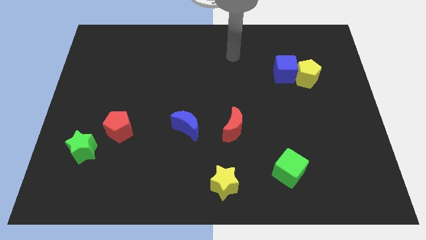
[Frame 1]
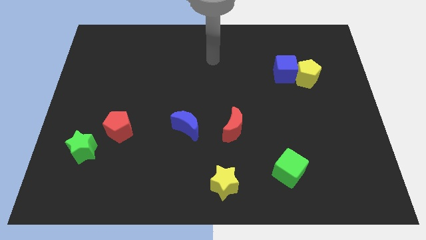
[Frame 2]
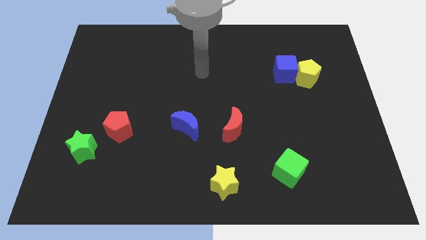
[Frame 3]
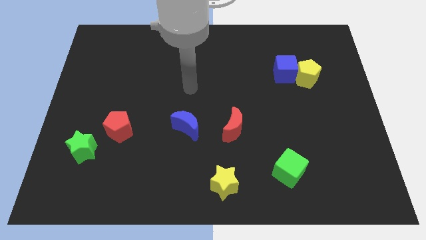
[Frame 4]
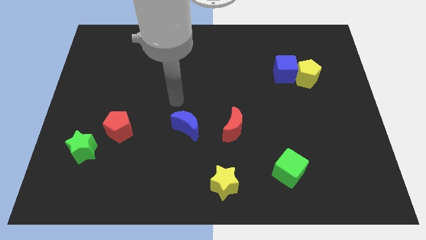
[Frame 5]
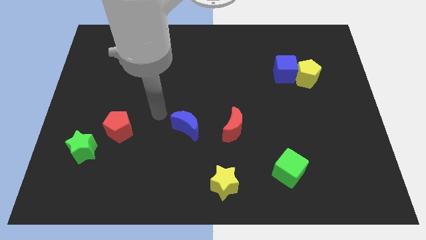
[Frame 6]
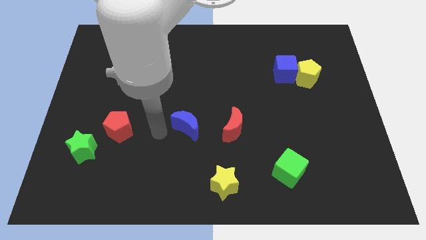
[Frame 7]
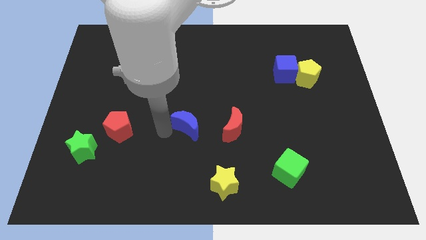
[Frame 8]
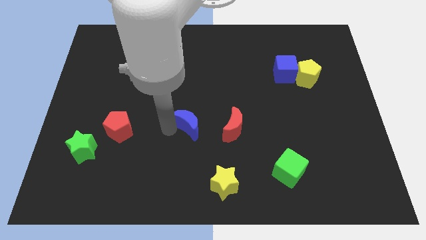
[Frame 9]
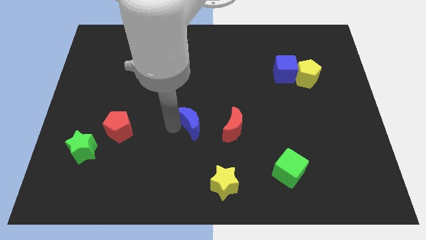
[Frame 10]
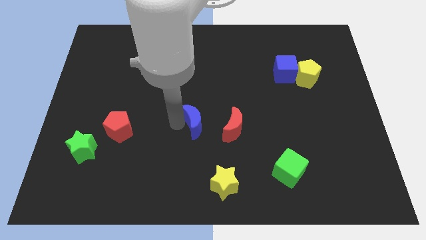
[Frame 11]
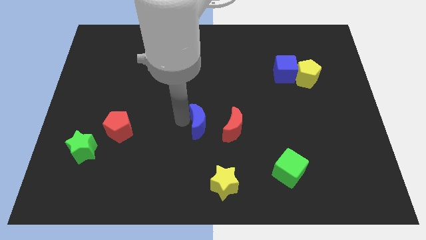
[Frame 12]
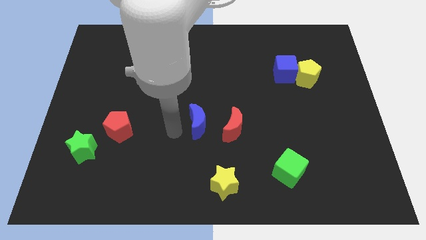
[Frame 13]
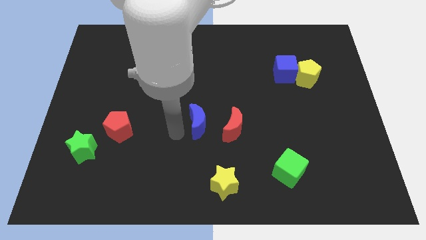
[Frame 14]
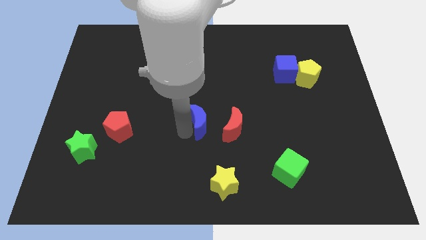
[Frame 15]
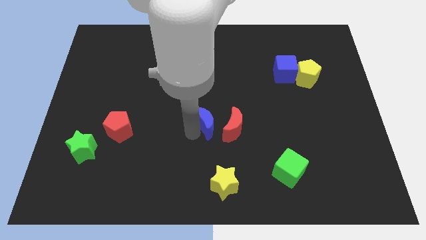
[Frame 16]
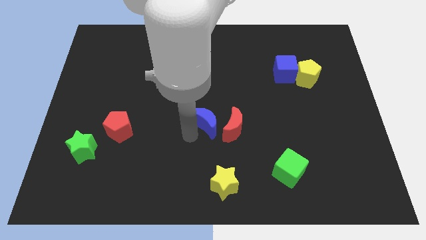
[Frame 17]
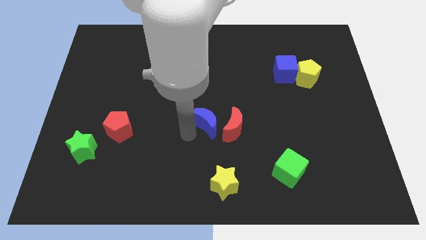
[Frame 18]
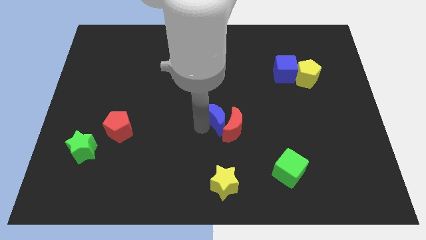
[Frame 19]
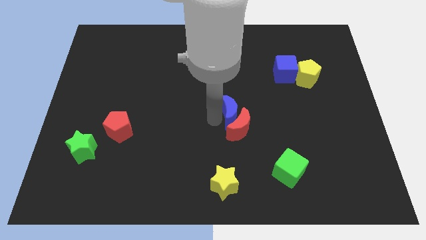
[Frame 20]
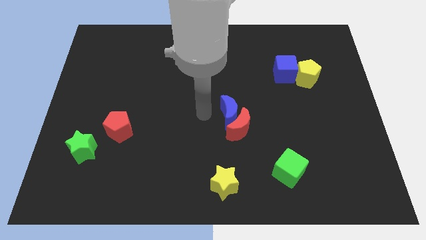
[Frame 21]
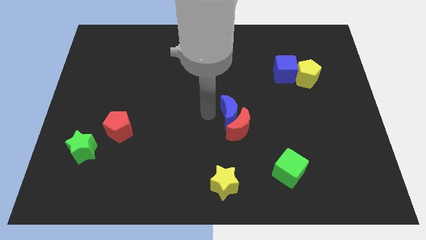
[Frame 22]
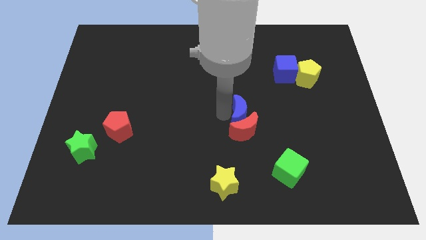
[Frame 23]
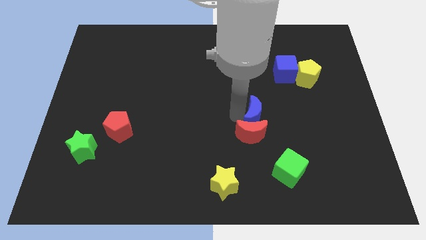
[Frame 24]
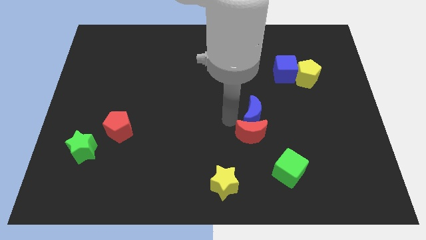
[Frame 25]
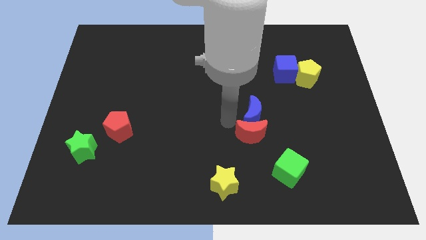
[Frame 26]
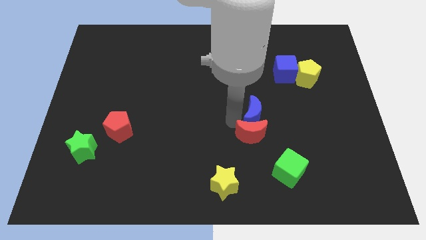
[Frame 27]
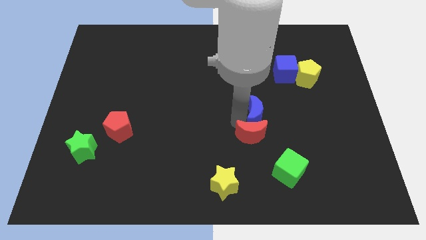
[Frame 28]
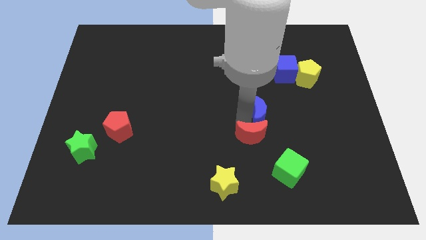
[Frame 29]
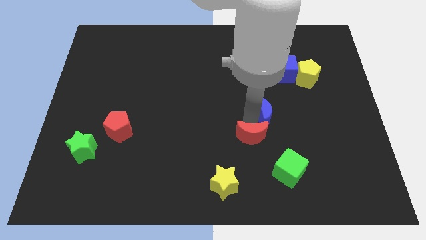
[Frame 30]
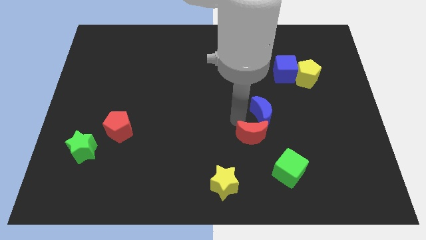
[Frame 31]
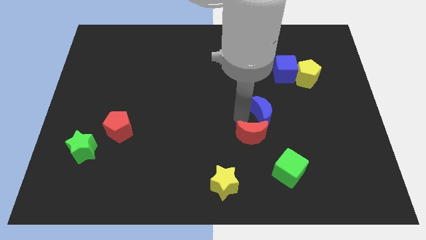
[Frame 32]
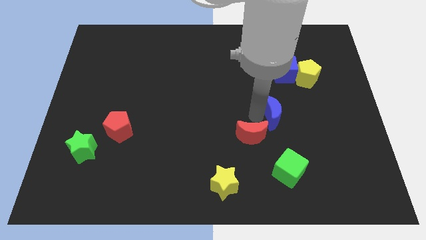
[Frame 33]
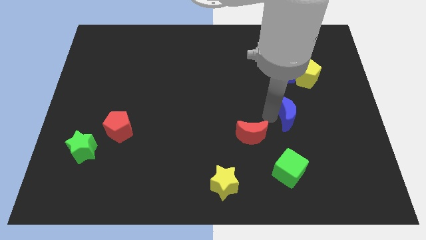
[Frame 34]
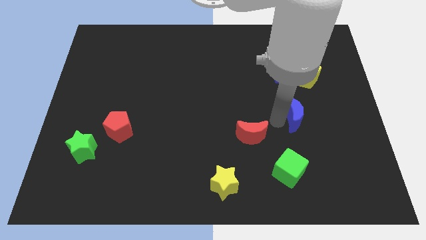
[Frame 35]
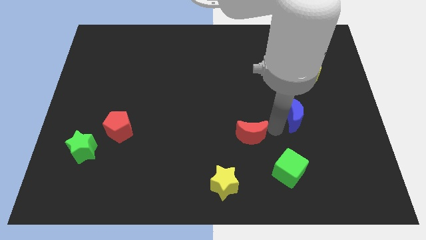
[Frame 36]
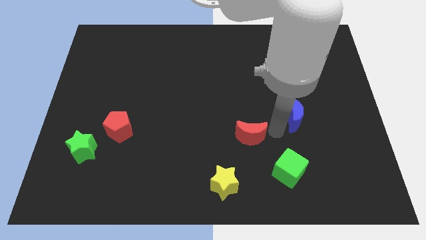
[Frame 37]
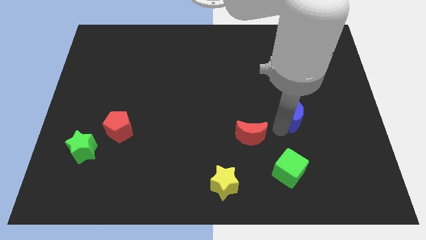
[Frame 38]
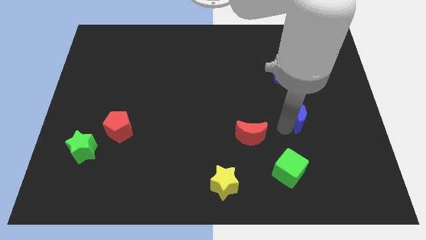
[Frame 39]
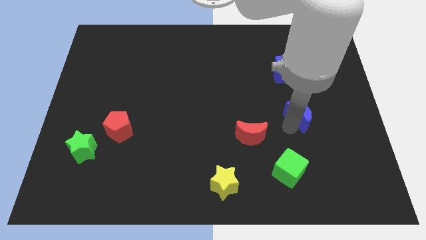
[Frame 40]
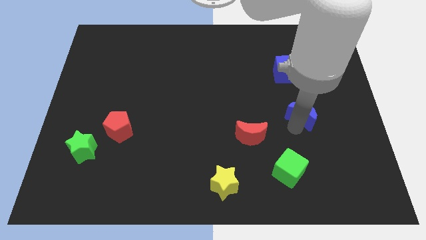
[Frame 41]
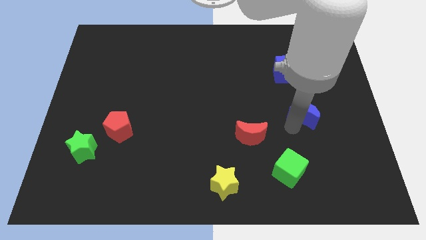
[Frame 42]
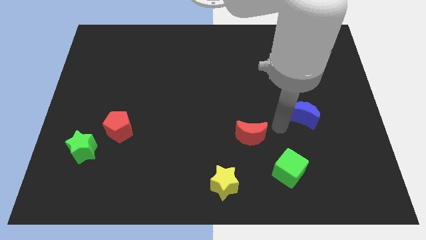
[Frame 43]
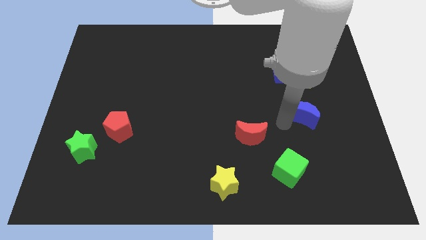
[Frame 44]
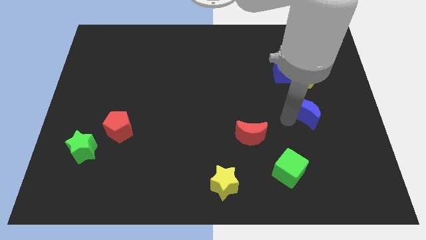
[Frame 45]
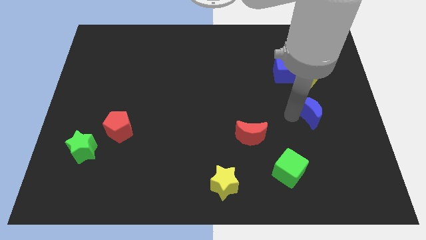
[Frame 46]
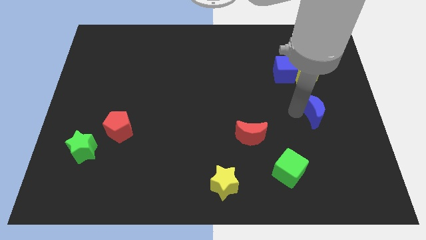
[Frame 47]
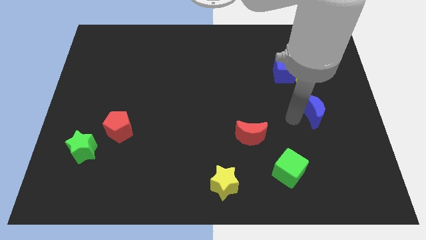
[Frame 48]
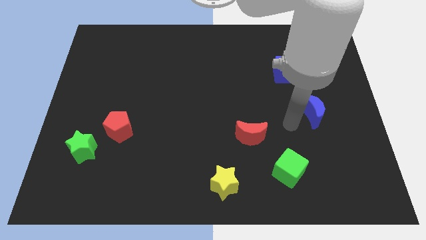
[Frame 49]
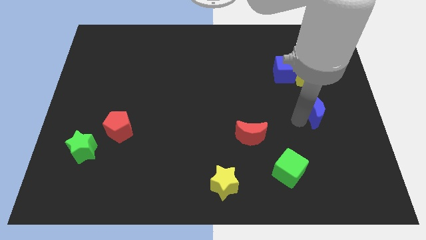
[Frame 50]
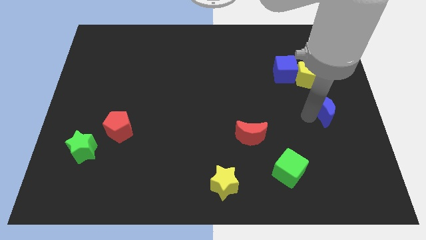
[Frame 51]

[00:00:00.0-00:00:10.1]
push the blue moon to the right side of the board
